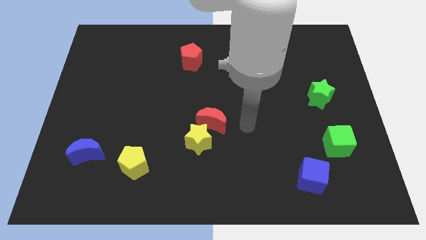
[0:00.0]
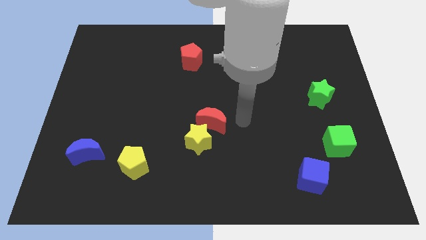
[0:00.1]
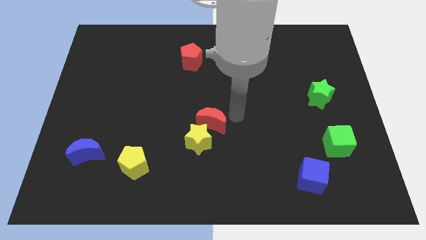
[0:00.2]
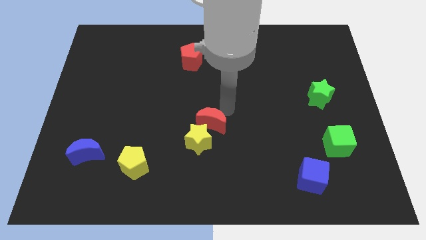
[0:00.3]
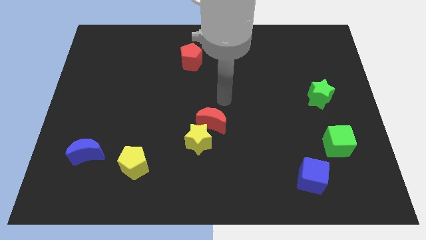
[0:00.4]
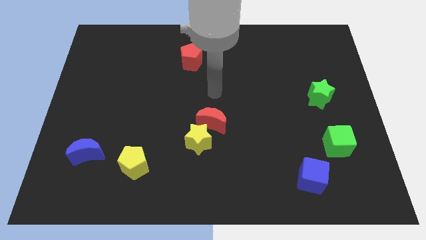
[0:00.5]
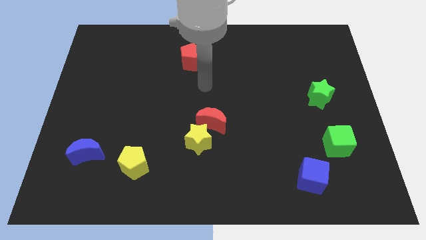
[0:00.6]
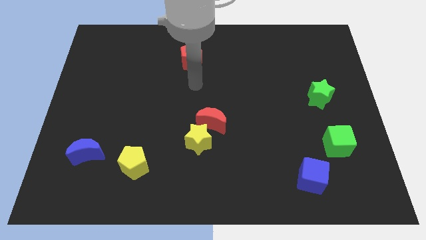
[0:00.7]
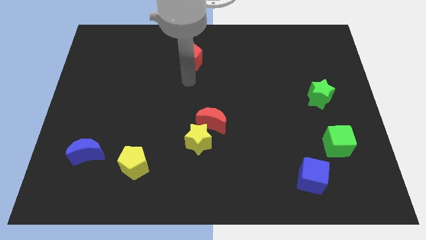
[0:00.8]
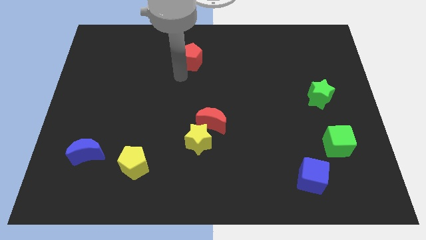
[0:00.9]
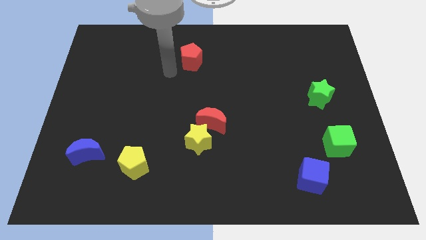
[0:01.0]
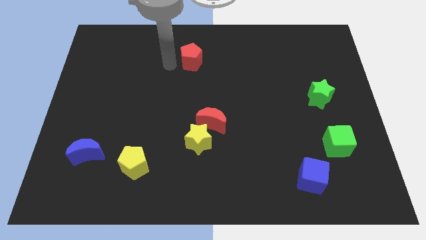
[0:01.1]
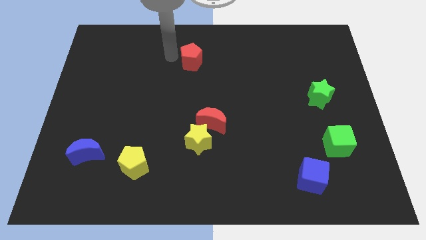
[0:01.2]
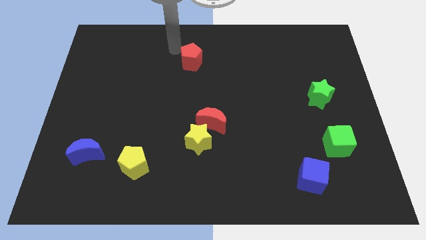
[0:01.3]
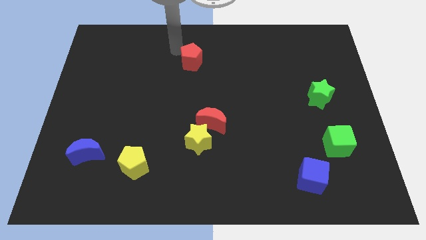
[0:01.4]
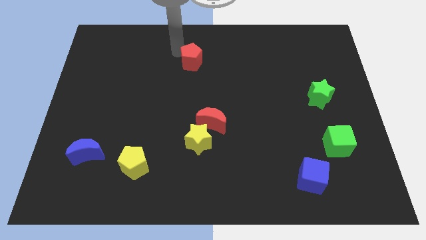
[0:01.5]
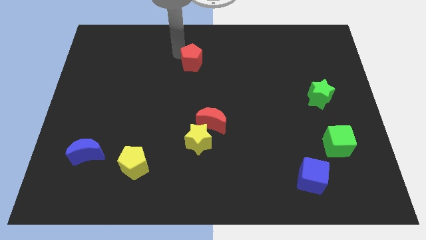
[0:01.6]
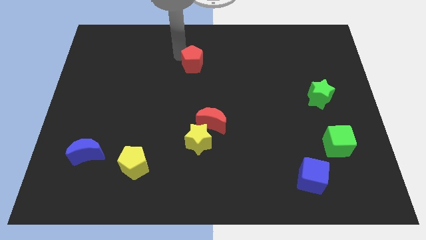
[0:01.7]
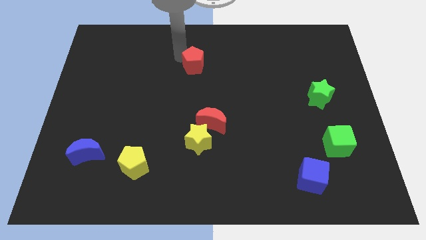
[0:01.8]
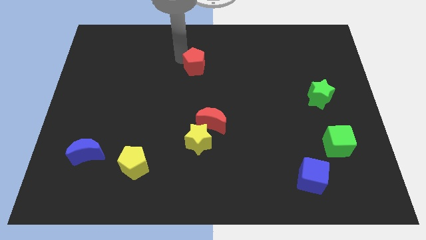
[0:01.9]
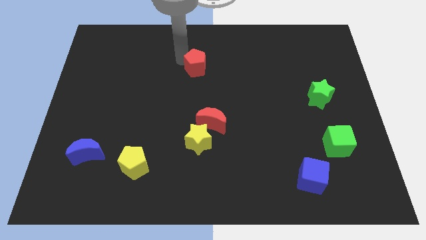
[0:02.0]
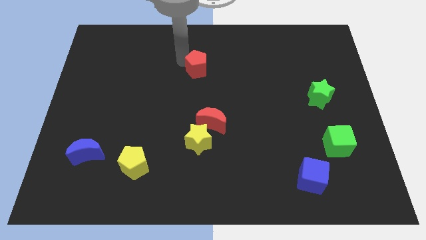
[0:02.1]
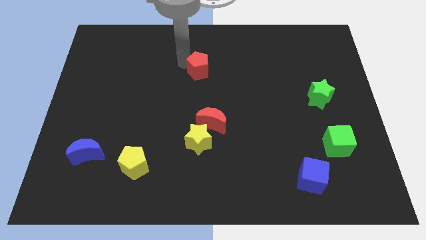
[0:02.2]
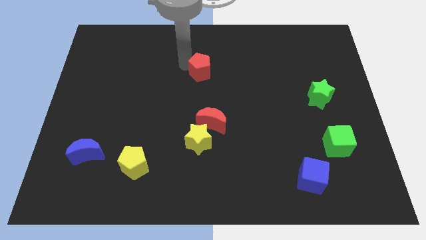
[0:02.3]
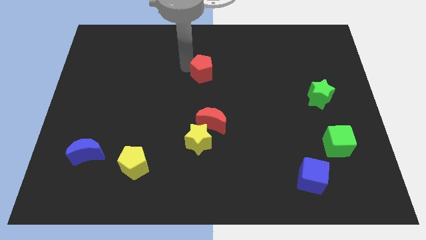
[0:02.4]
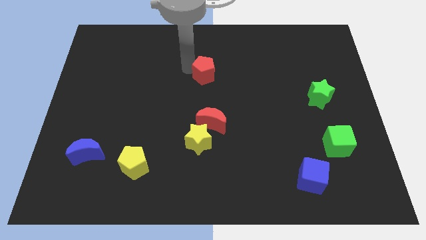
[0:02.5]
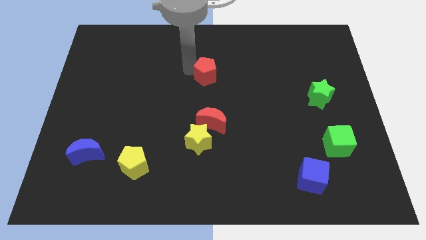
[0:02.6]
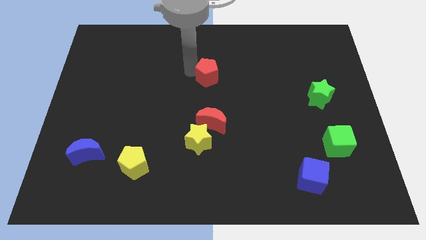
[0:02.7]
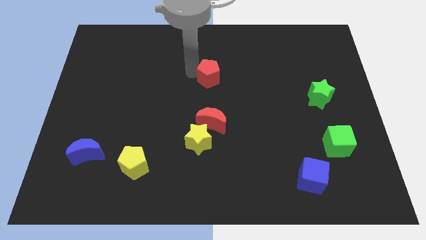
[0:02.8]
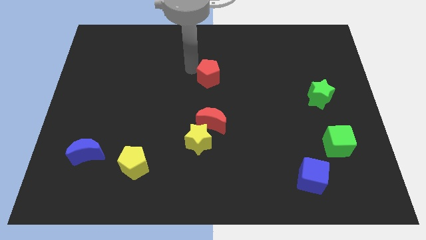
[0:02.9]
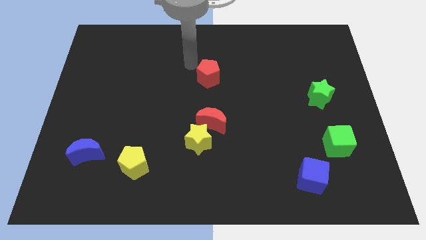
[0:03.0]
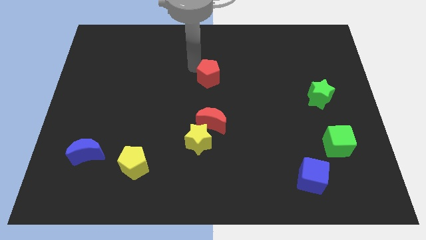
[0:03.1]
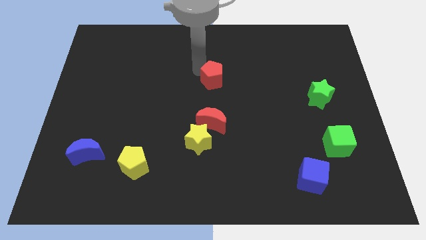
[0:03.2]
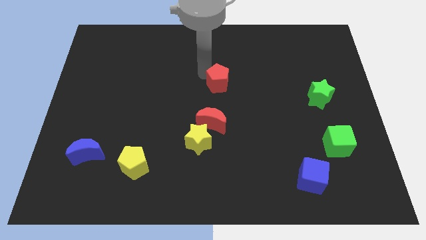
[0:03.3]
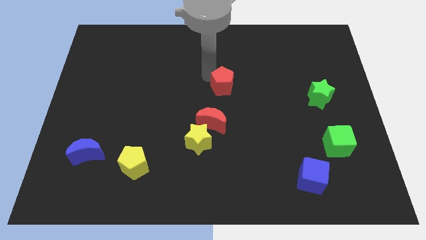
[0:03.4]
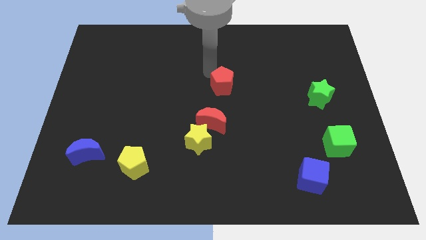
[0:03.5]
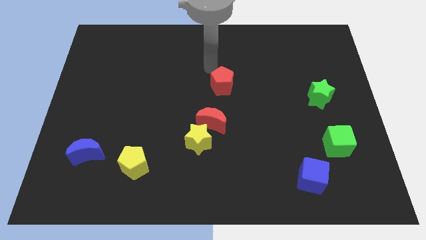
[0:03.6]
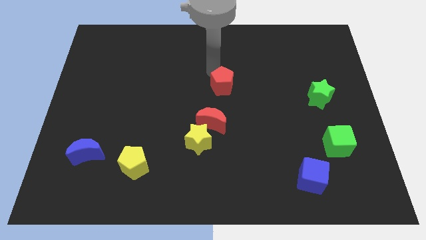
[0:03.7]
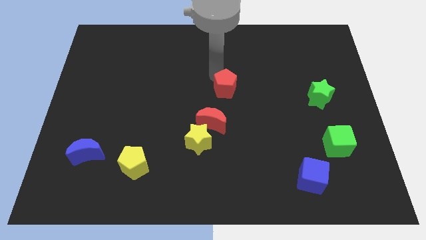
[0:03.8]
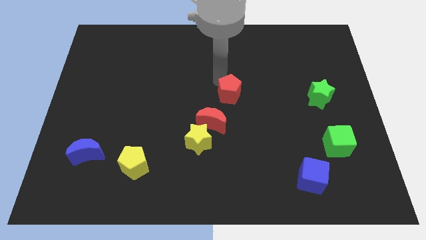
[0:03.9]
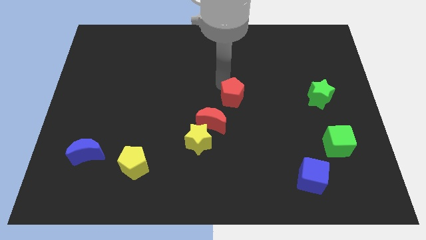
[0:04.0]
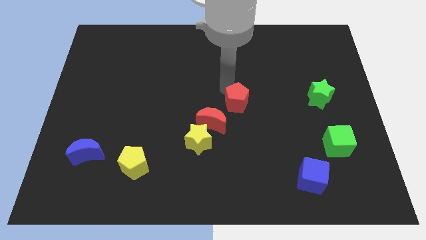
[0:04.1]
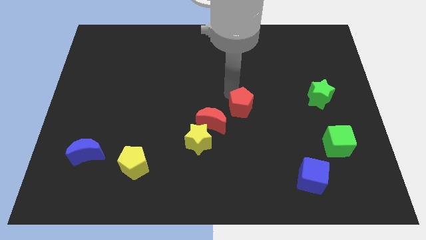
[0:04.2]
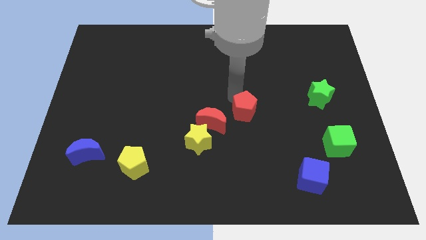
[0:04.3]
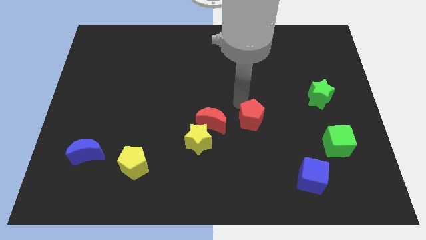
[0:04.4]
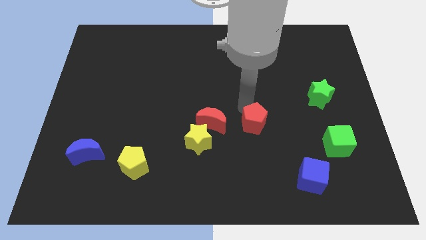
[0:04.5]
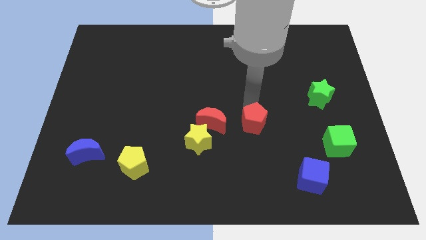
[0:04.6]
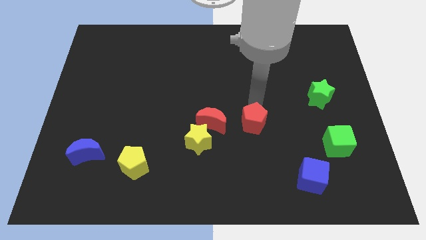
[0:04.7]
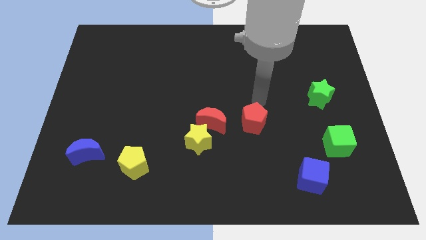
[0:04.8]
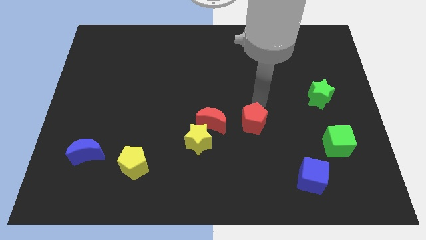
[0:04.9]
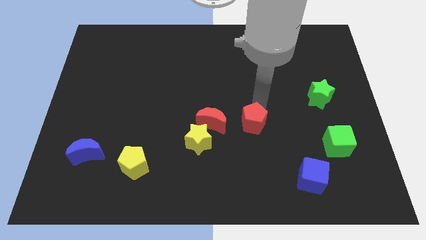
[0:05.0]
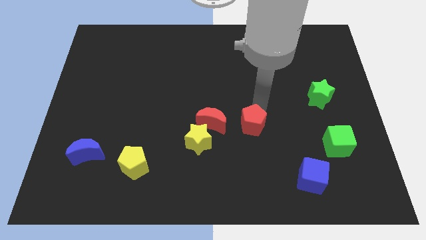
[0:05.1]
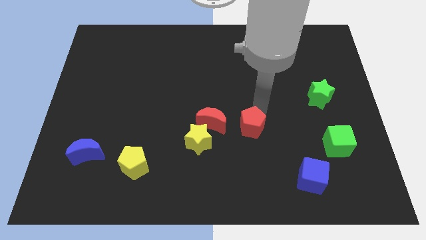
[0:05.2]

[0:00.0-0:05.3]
slide the red pentagon to the right side of the yellow star

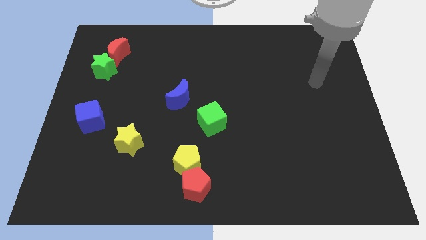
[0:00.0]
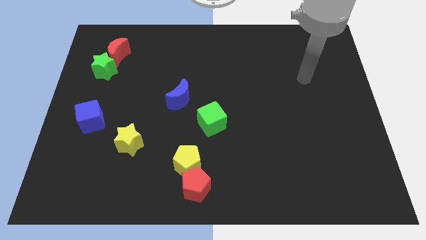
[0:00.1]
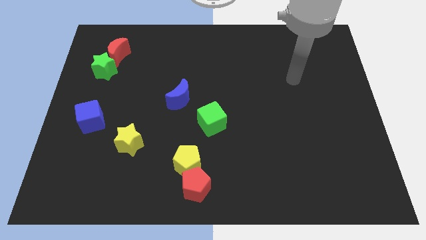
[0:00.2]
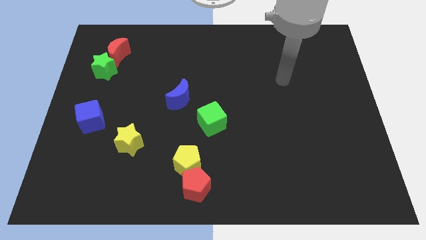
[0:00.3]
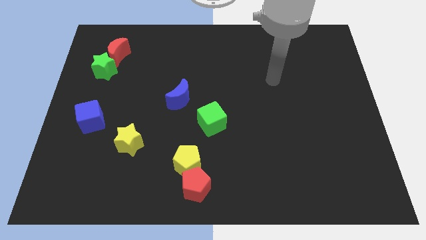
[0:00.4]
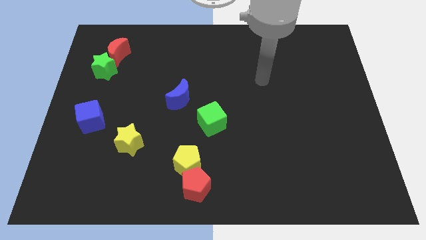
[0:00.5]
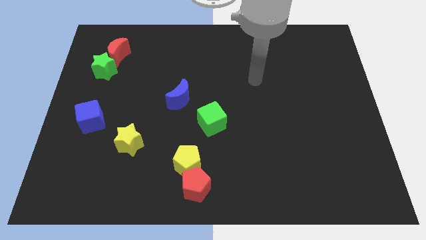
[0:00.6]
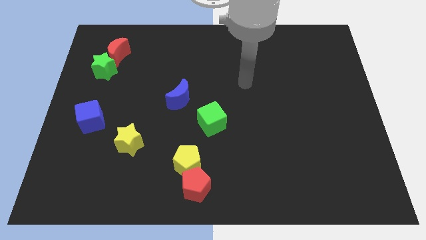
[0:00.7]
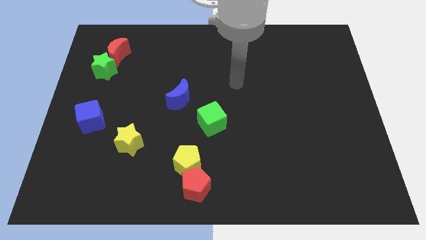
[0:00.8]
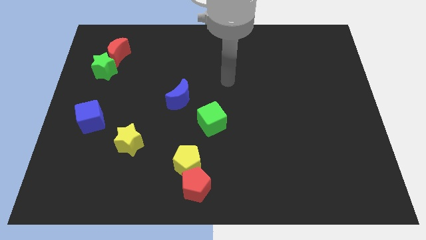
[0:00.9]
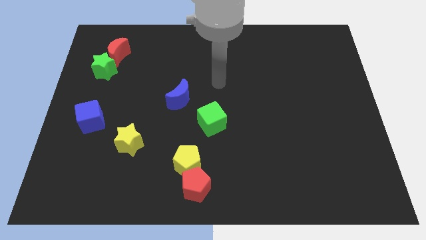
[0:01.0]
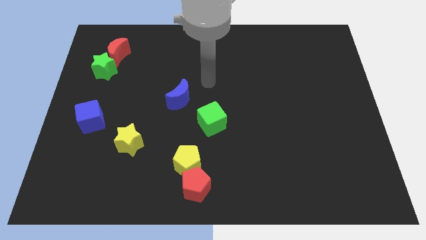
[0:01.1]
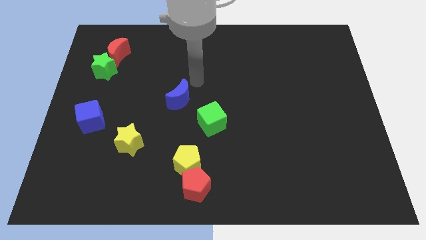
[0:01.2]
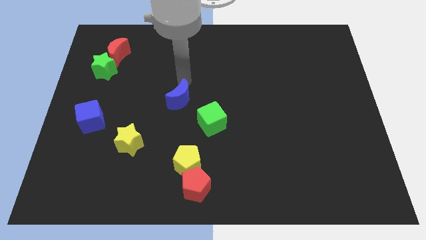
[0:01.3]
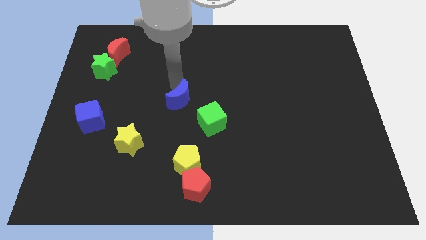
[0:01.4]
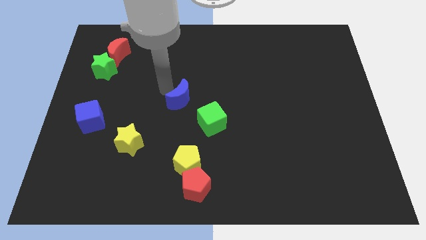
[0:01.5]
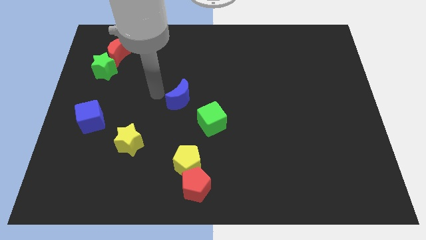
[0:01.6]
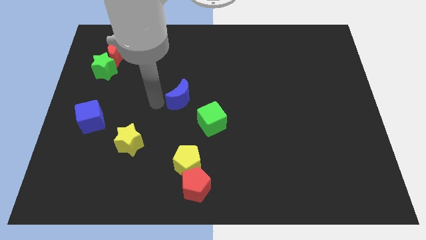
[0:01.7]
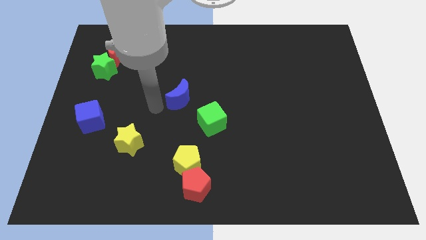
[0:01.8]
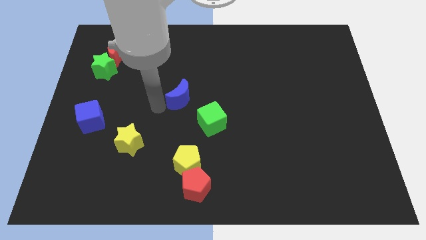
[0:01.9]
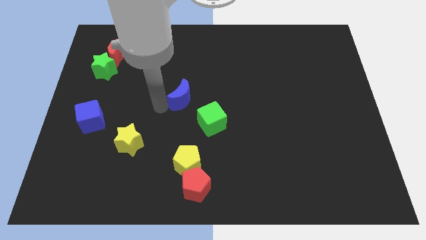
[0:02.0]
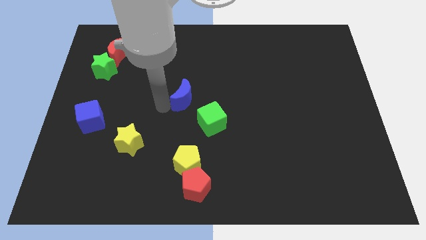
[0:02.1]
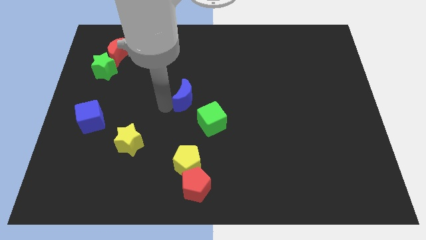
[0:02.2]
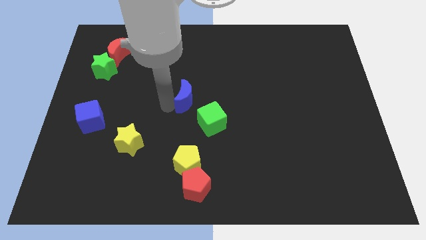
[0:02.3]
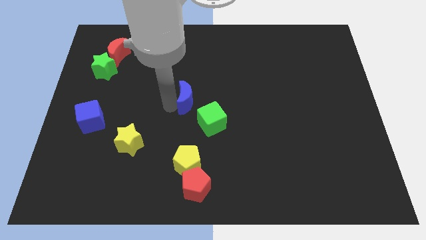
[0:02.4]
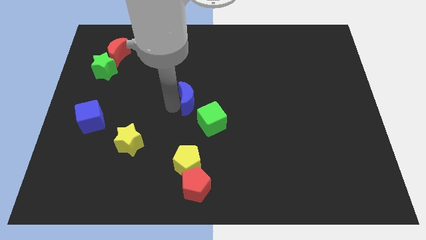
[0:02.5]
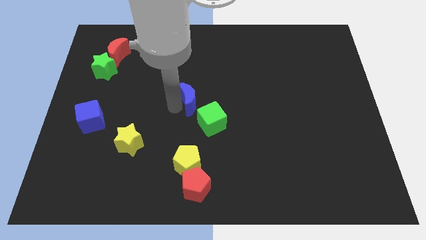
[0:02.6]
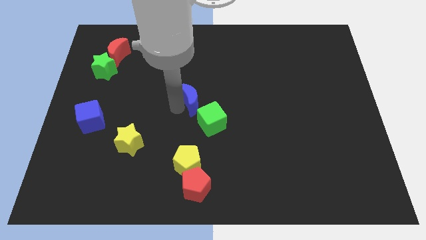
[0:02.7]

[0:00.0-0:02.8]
slide the blue moon to the top of the green cube
